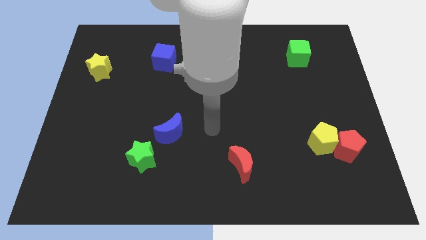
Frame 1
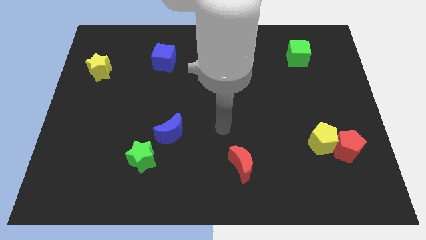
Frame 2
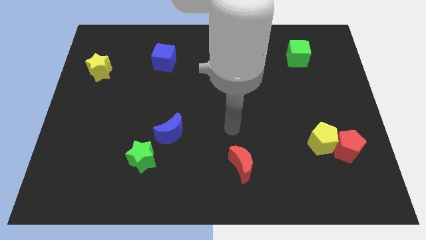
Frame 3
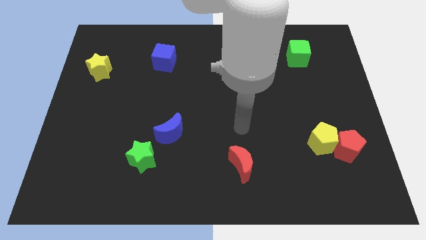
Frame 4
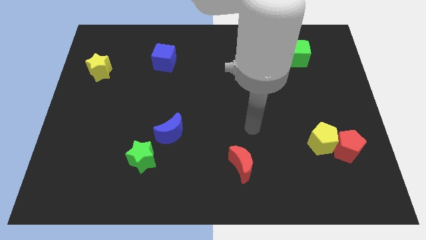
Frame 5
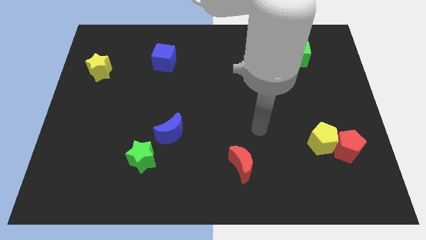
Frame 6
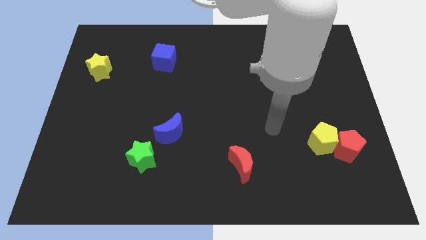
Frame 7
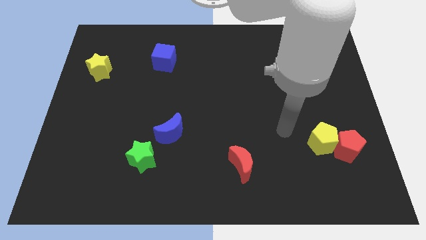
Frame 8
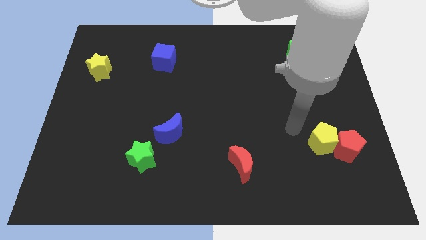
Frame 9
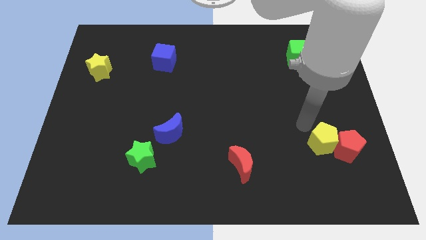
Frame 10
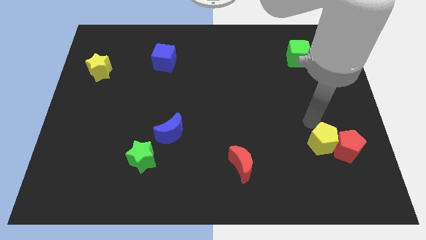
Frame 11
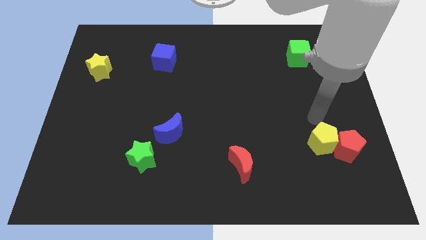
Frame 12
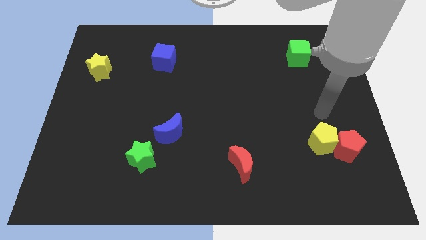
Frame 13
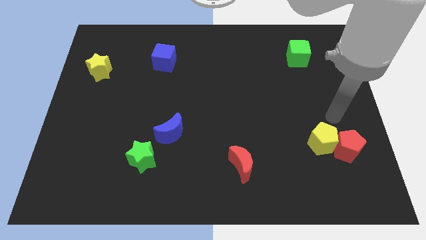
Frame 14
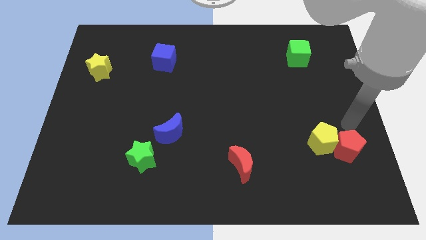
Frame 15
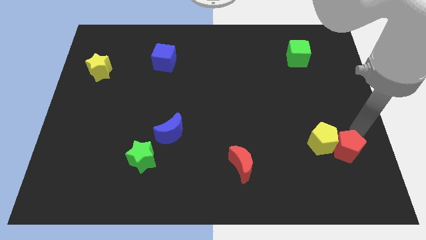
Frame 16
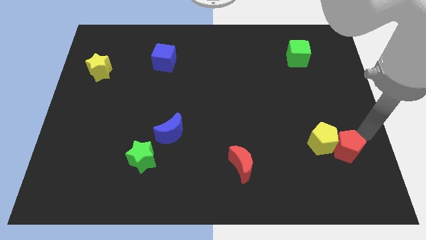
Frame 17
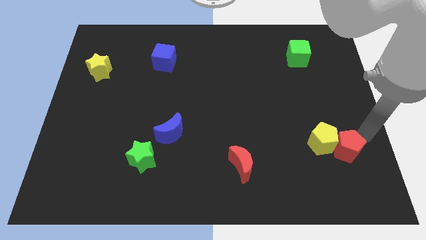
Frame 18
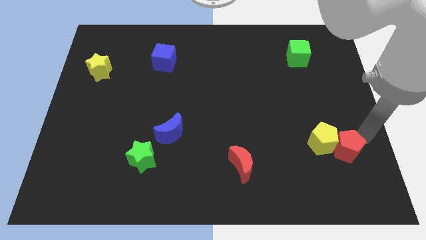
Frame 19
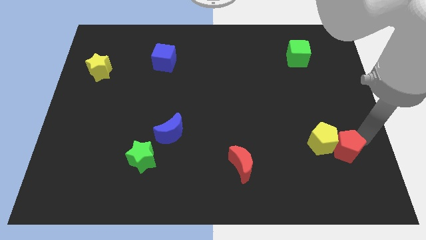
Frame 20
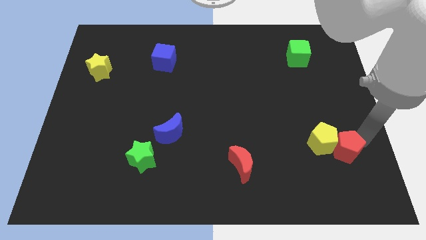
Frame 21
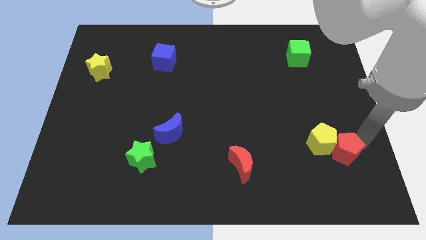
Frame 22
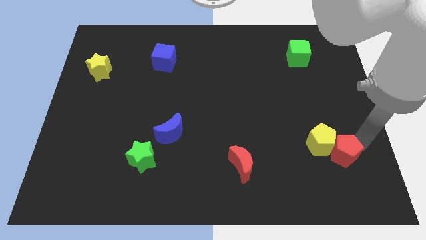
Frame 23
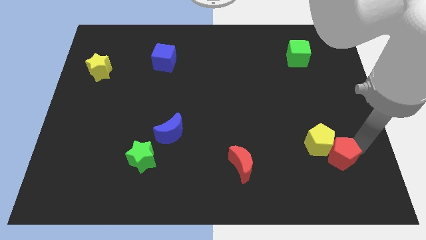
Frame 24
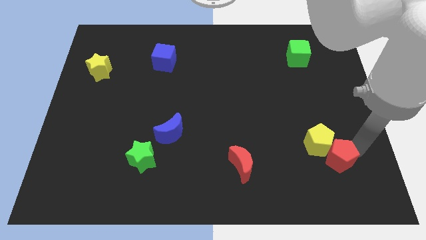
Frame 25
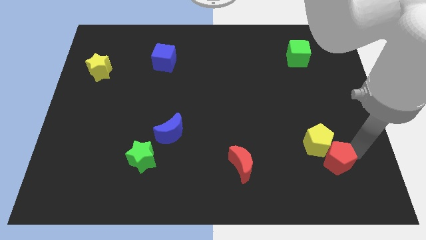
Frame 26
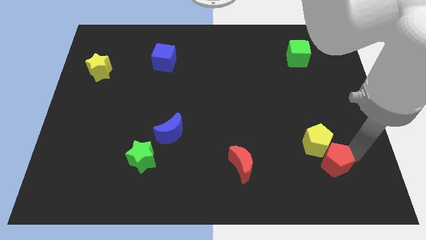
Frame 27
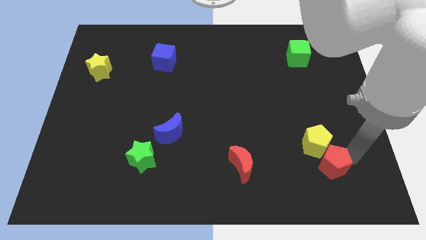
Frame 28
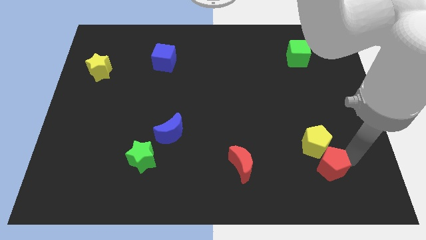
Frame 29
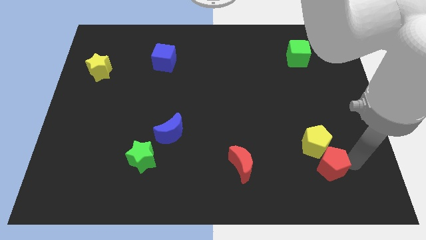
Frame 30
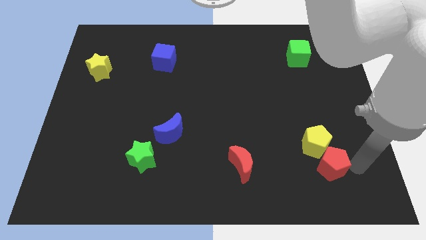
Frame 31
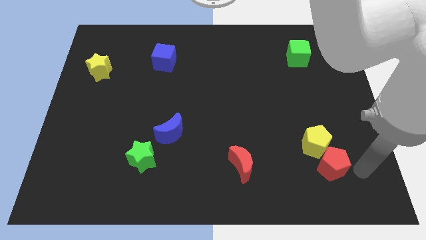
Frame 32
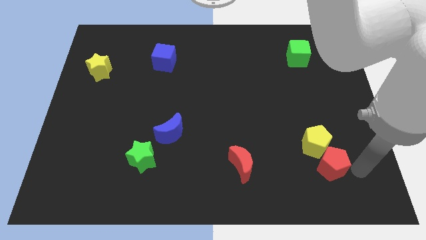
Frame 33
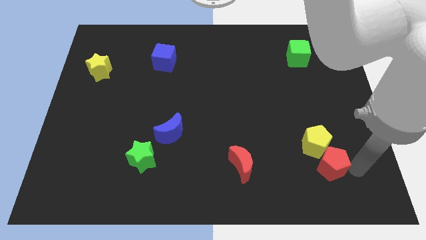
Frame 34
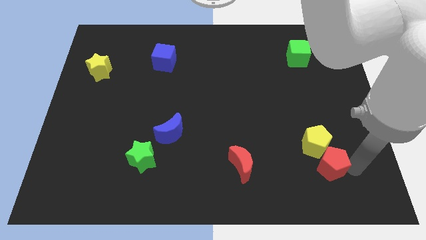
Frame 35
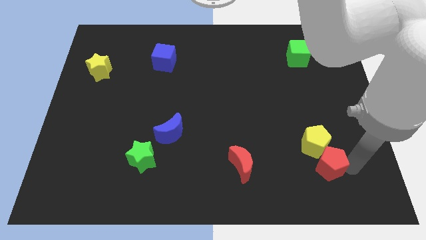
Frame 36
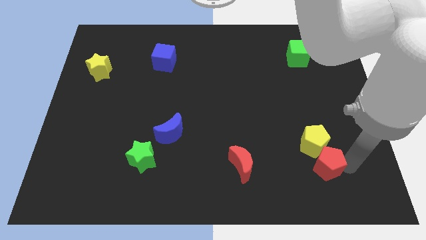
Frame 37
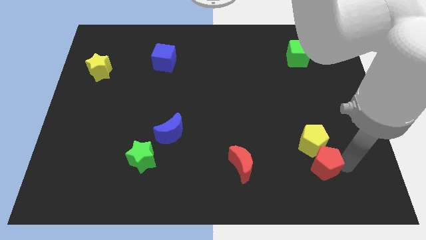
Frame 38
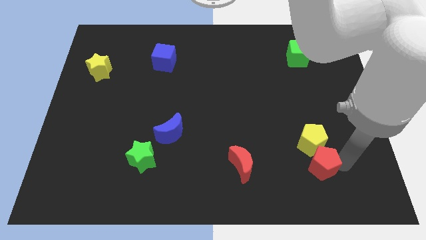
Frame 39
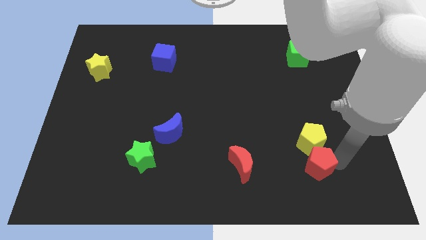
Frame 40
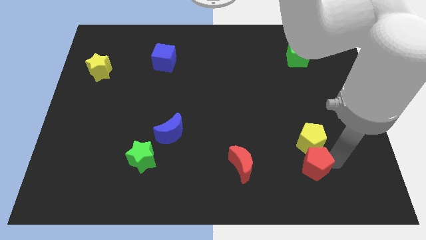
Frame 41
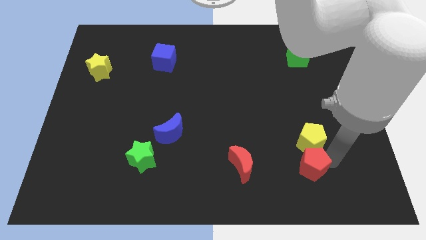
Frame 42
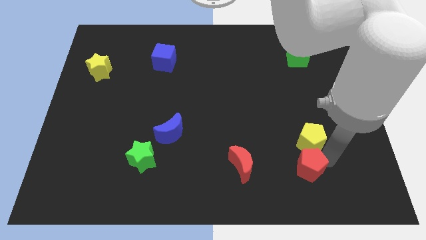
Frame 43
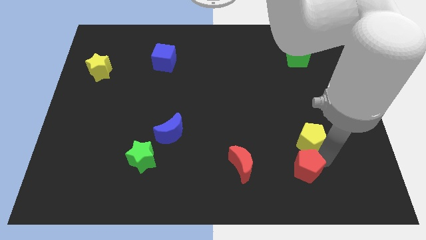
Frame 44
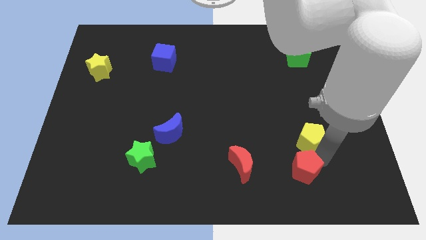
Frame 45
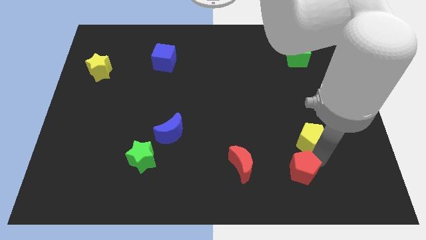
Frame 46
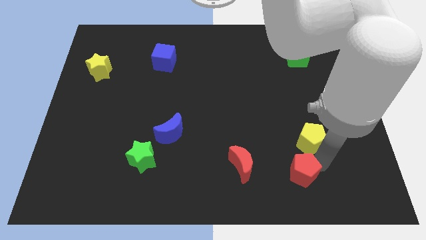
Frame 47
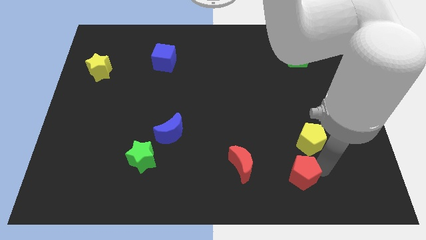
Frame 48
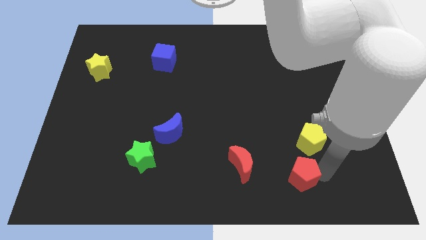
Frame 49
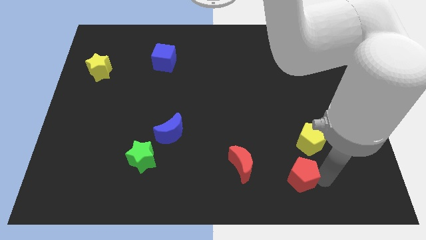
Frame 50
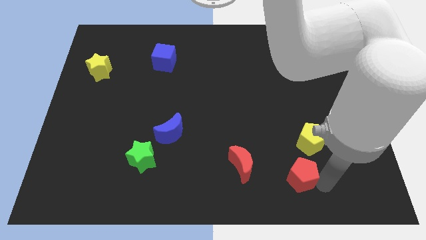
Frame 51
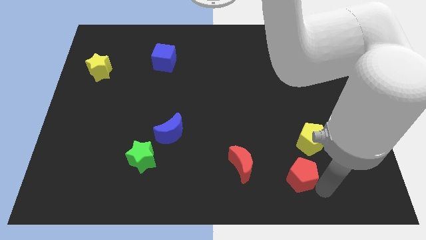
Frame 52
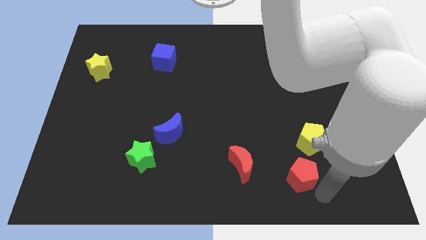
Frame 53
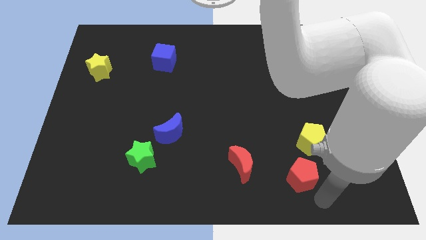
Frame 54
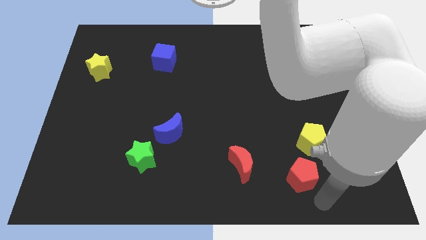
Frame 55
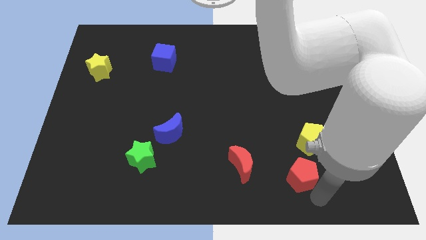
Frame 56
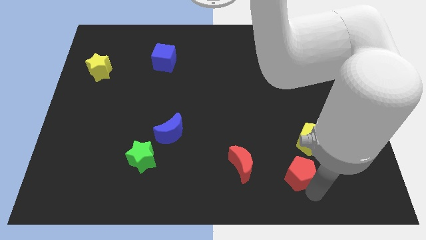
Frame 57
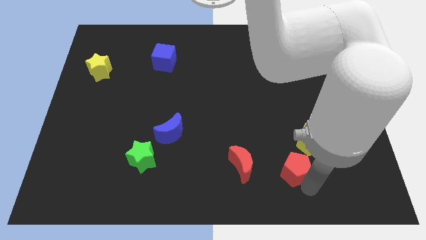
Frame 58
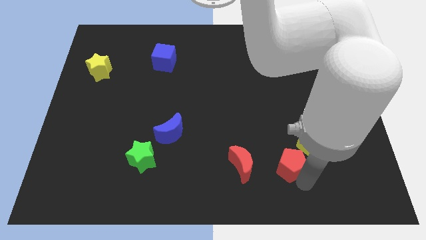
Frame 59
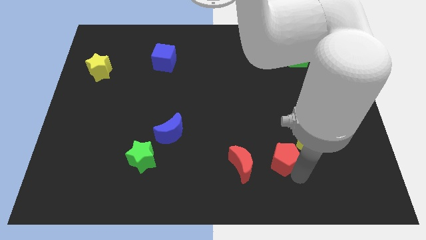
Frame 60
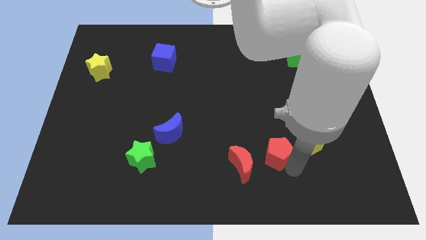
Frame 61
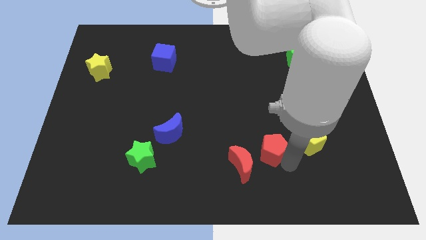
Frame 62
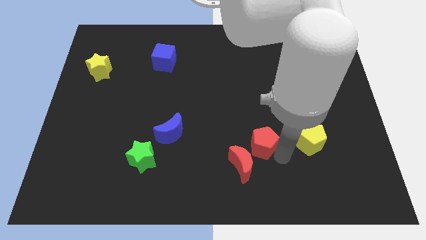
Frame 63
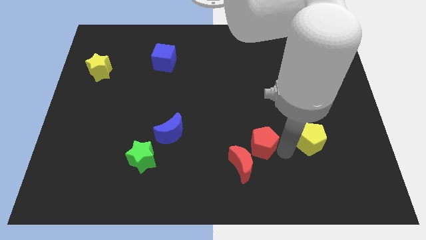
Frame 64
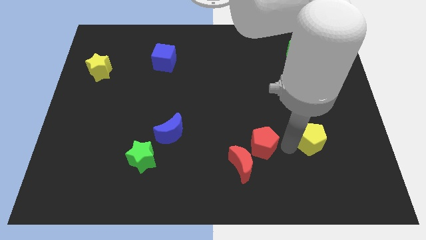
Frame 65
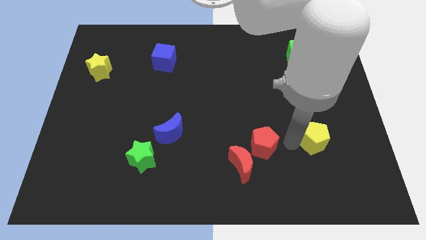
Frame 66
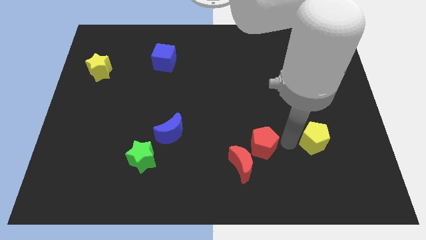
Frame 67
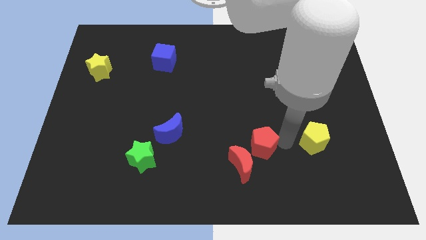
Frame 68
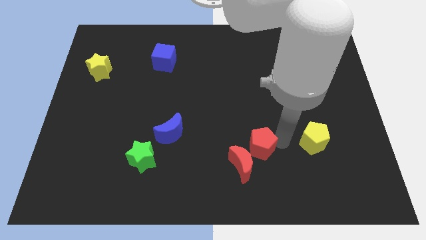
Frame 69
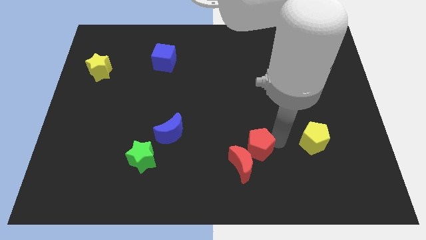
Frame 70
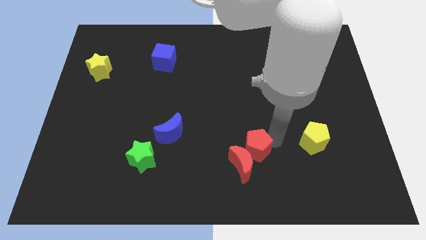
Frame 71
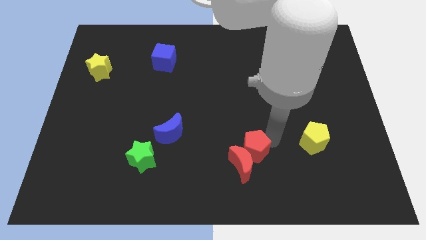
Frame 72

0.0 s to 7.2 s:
move the red pentagon to the left

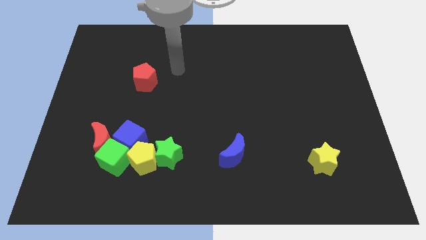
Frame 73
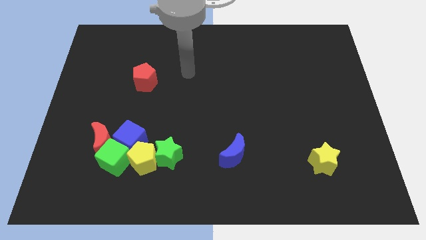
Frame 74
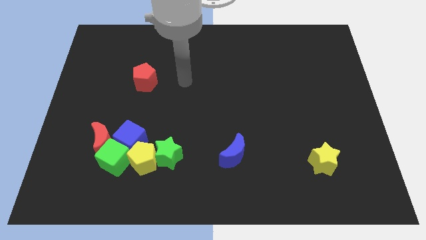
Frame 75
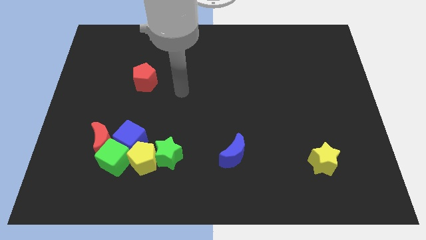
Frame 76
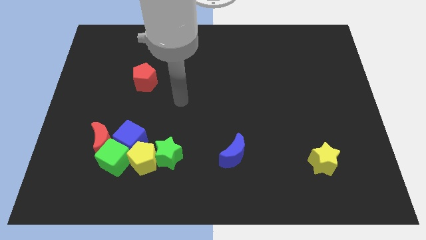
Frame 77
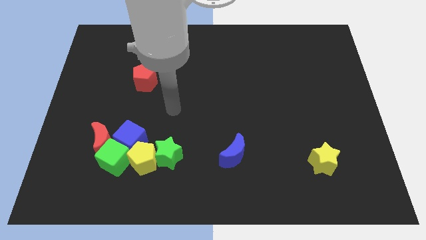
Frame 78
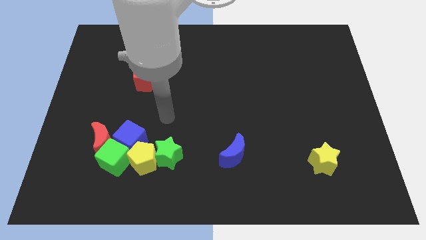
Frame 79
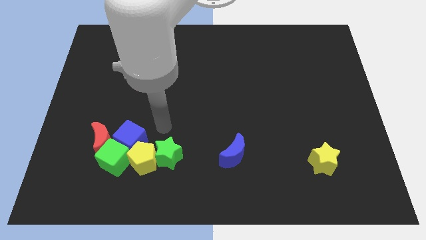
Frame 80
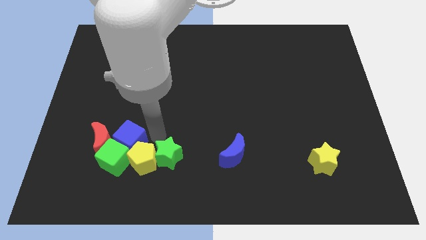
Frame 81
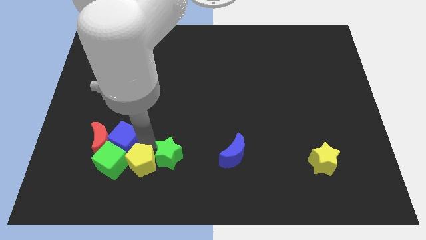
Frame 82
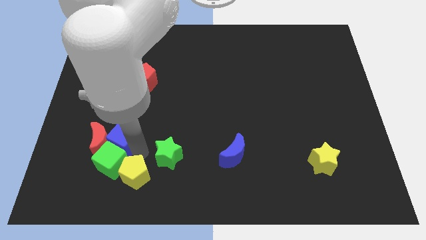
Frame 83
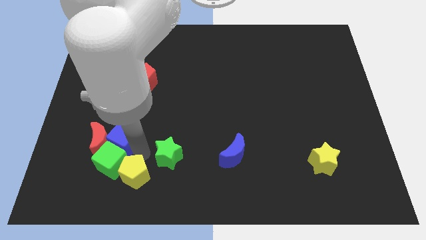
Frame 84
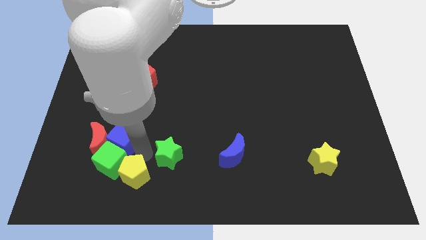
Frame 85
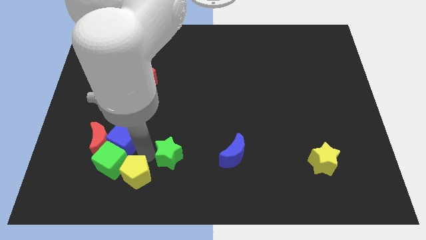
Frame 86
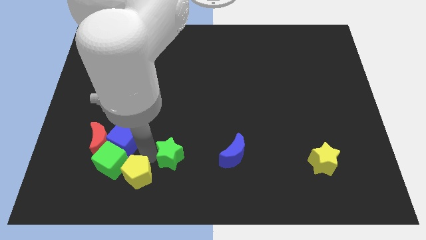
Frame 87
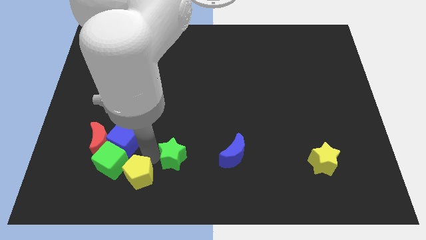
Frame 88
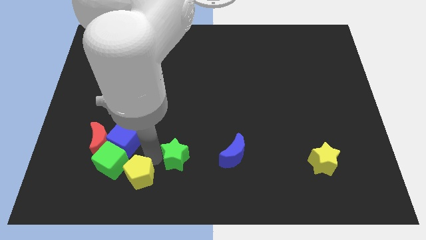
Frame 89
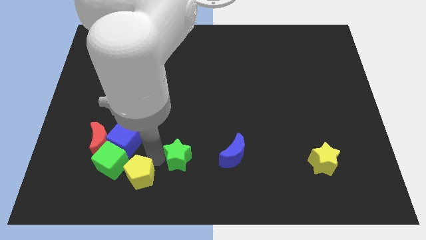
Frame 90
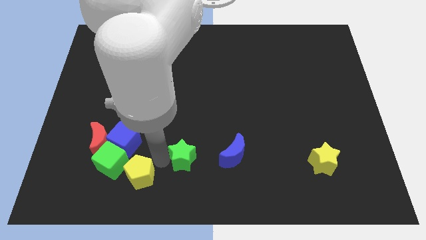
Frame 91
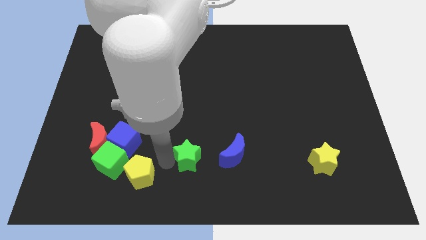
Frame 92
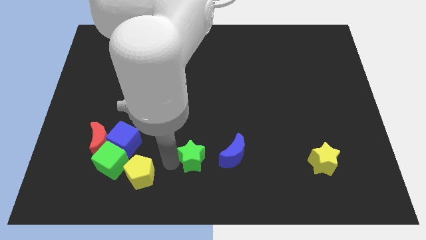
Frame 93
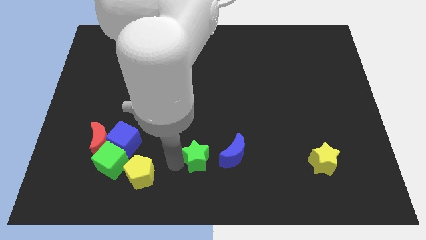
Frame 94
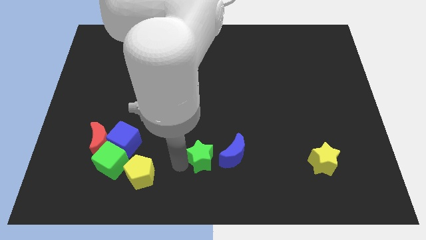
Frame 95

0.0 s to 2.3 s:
move the green star a little bit right
